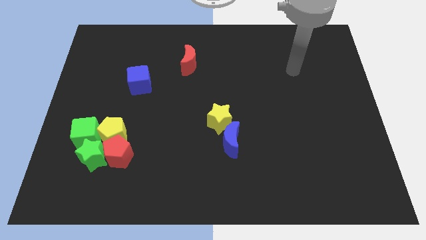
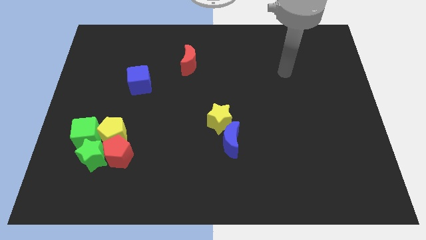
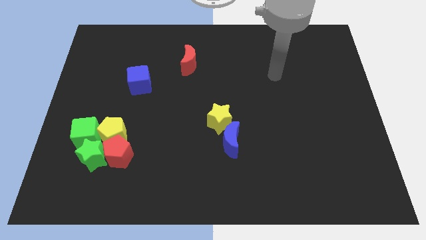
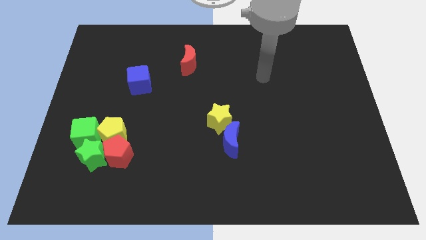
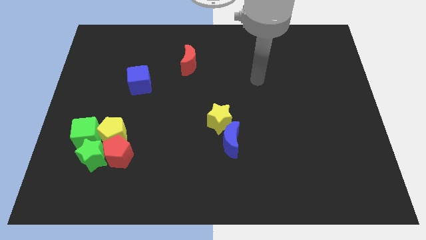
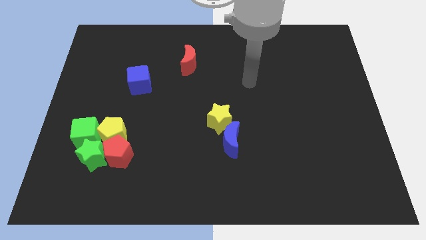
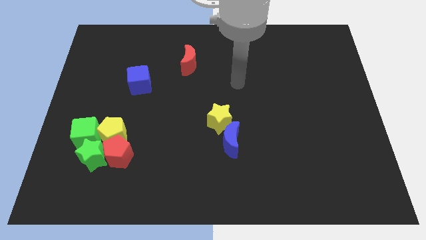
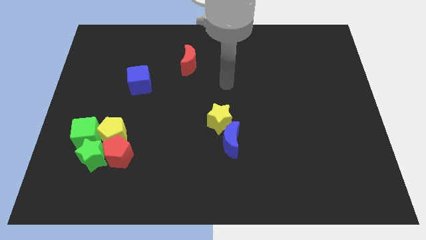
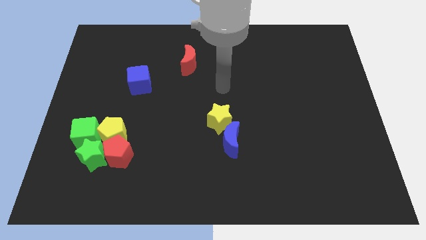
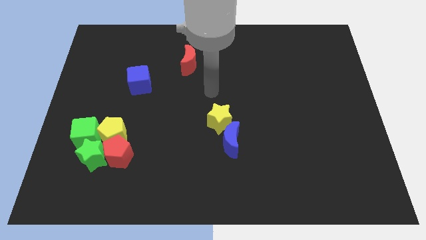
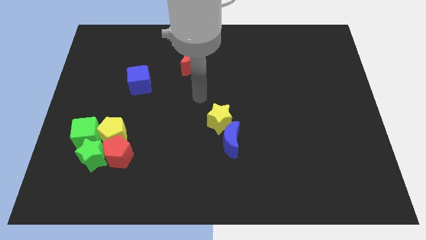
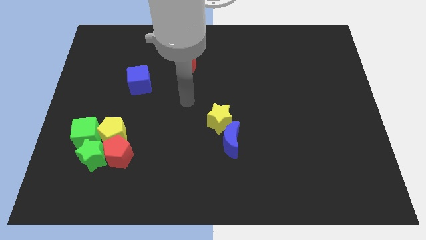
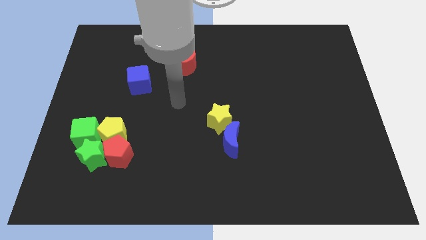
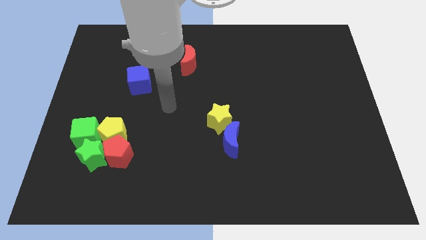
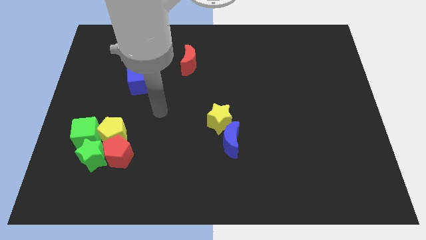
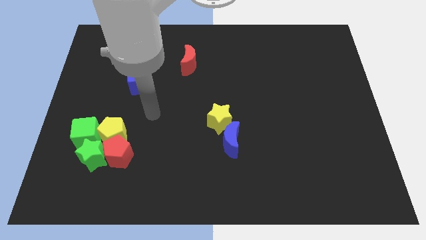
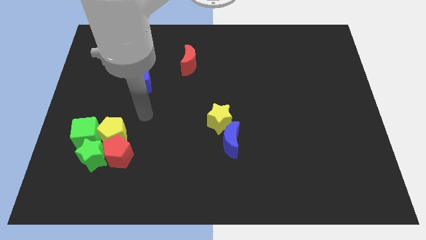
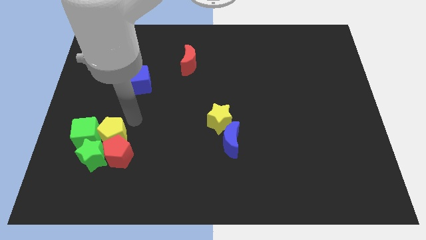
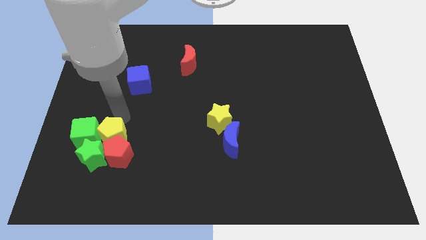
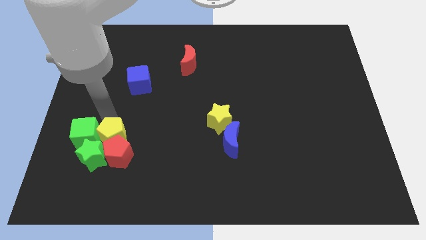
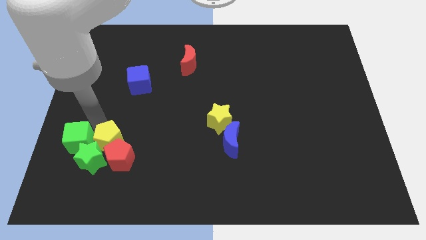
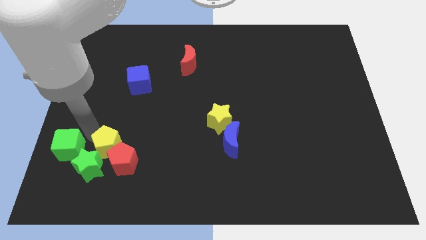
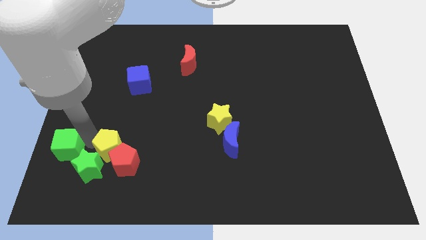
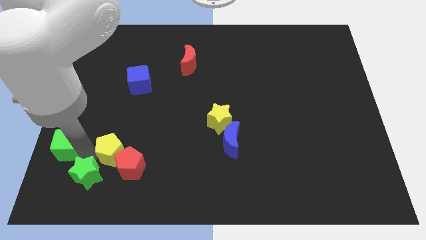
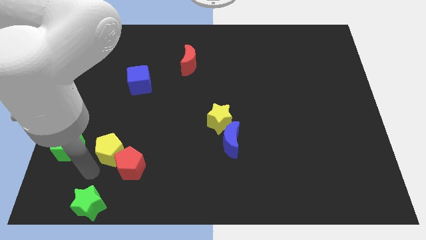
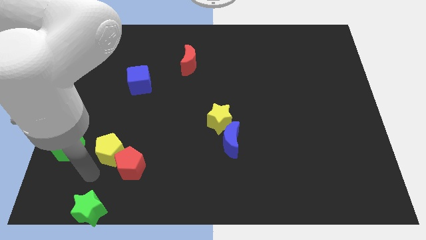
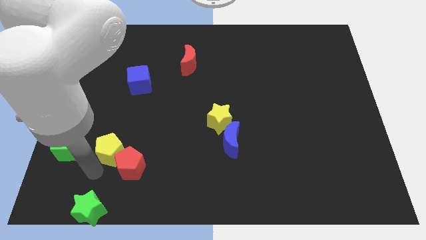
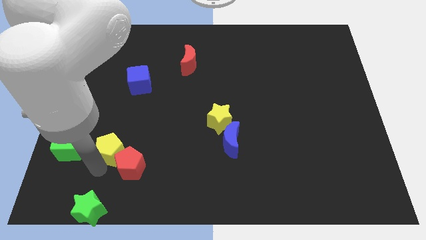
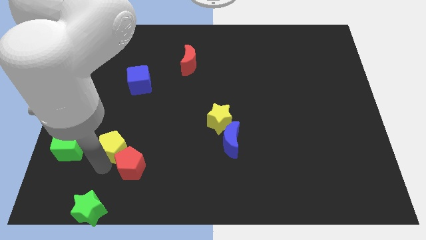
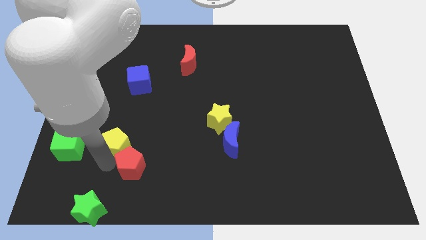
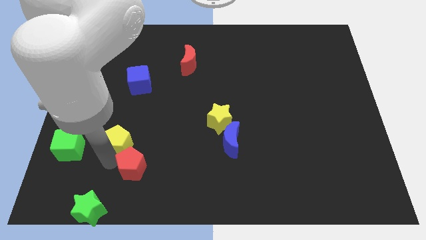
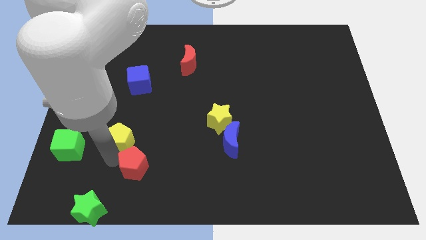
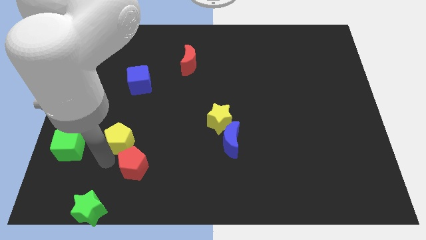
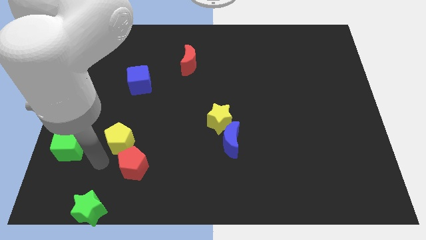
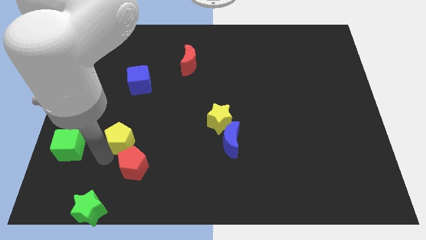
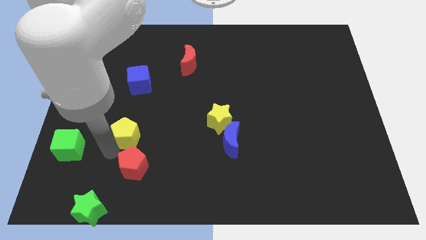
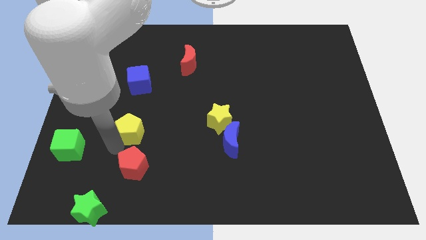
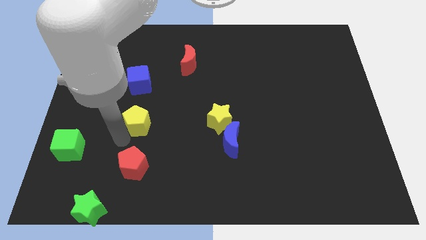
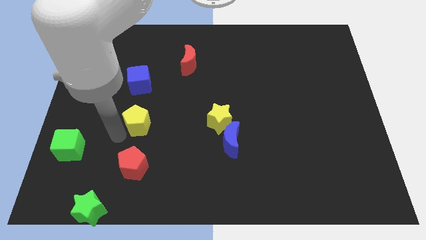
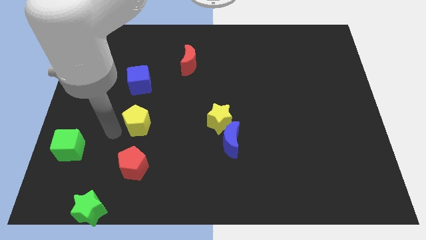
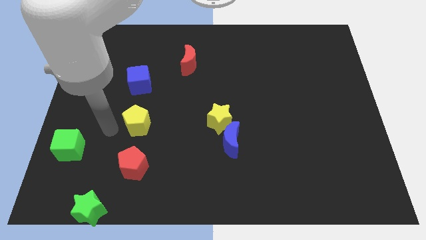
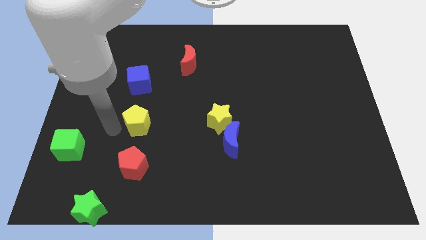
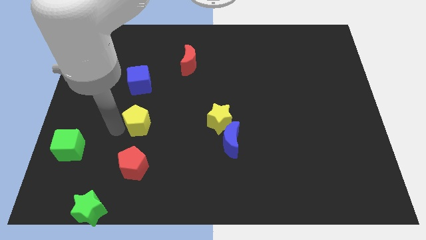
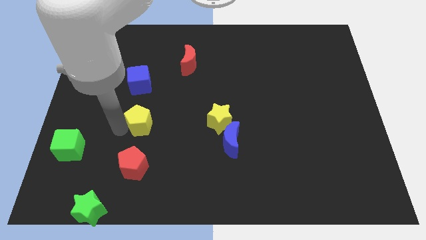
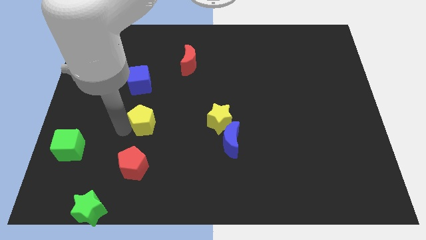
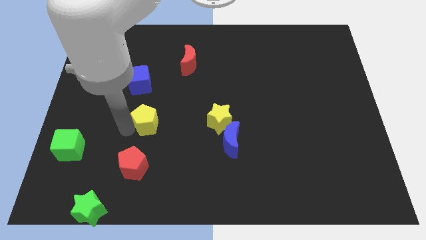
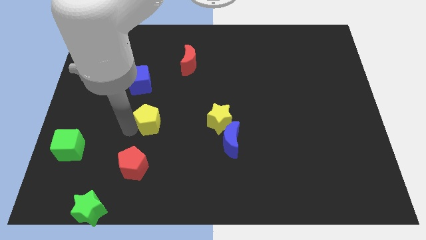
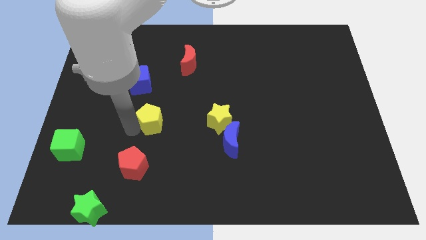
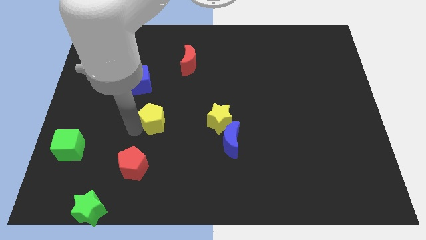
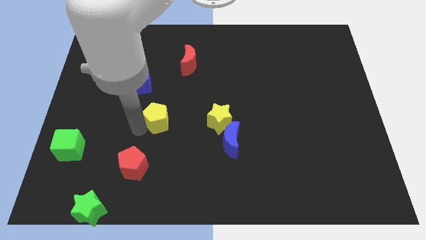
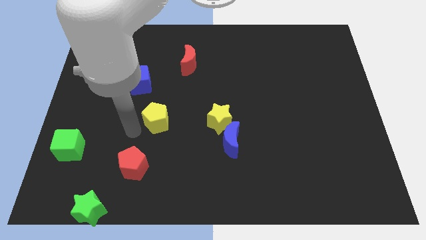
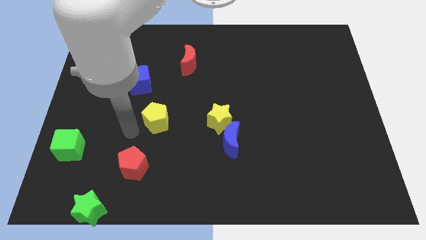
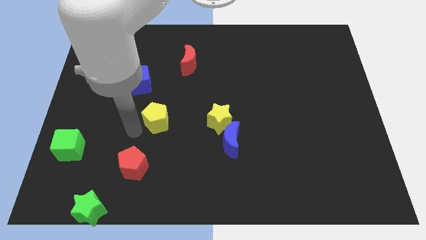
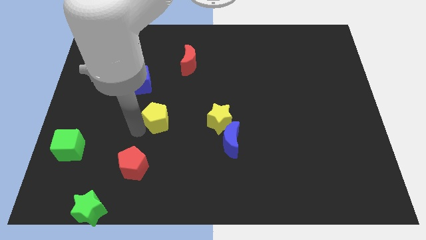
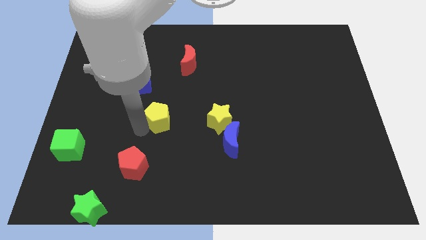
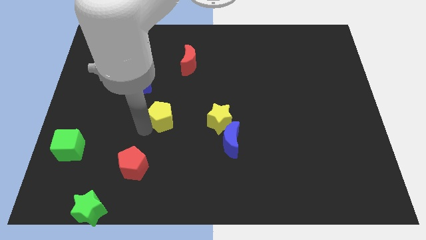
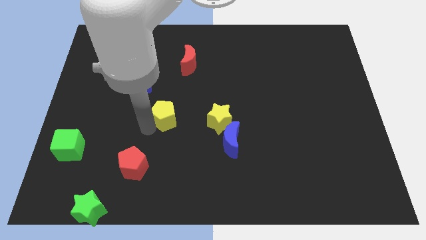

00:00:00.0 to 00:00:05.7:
put the yellow pentagon to the center of the board

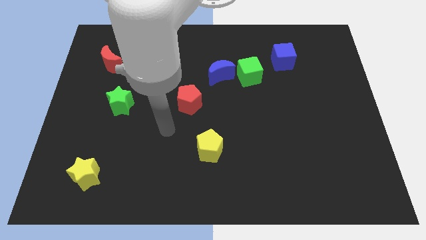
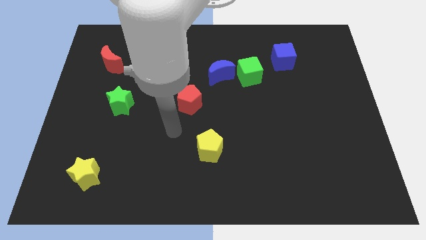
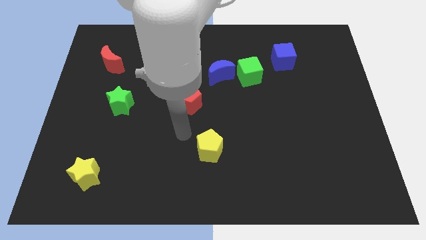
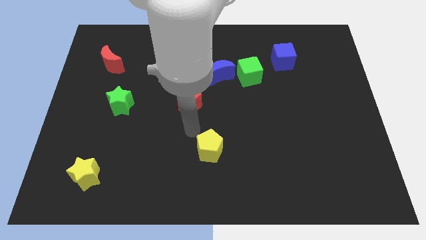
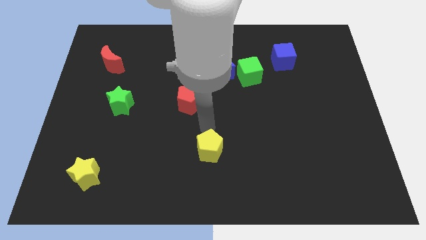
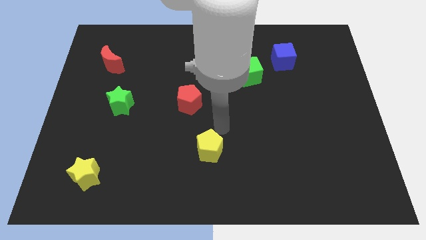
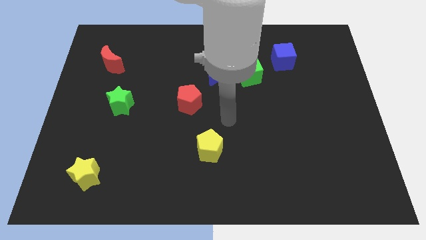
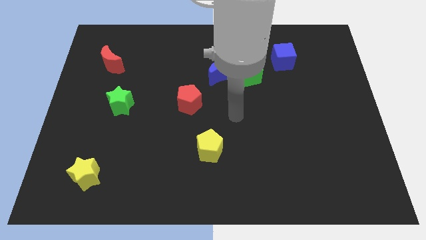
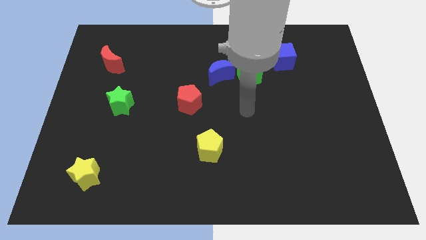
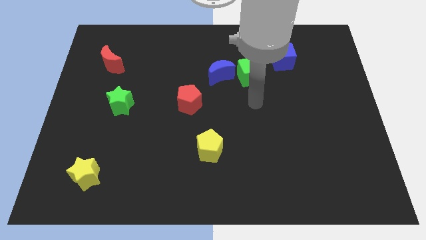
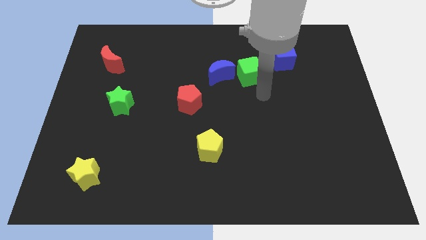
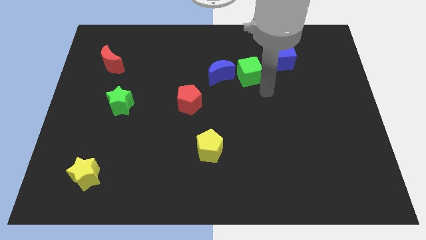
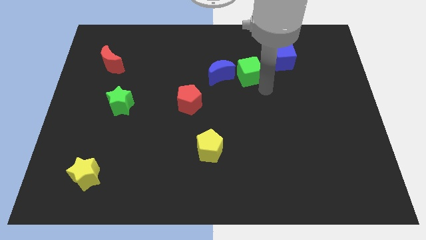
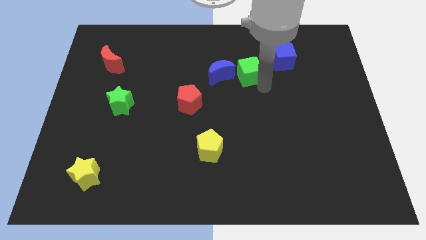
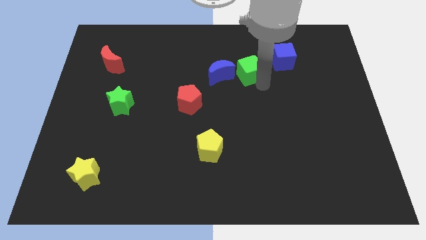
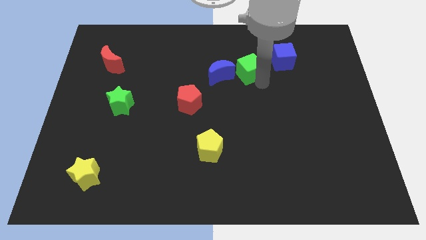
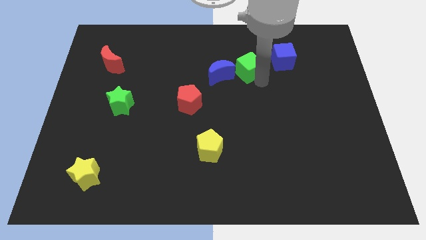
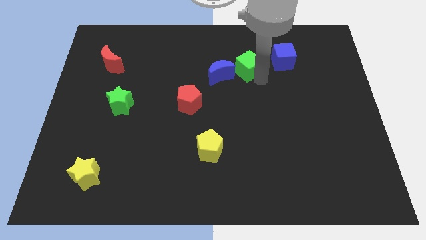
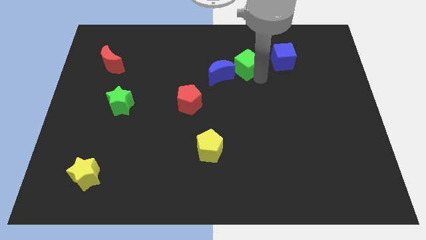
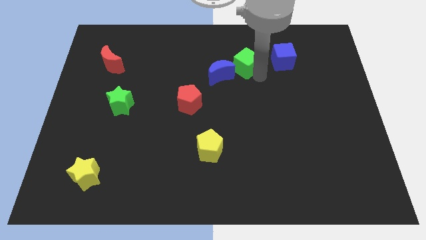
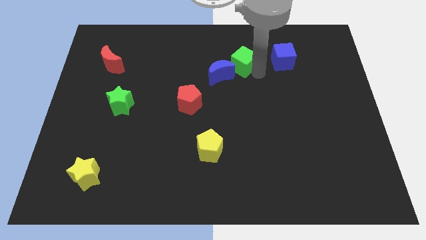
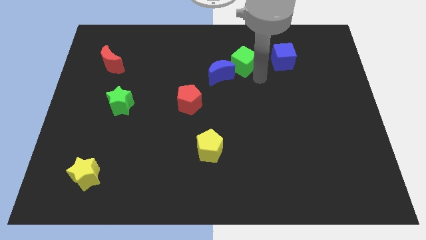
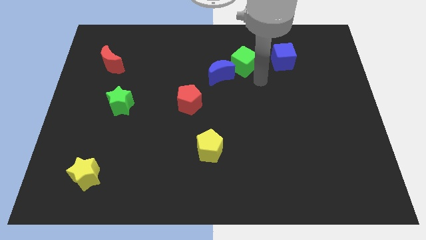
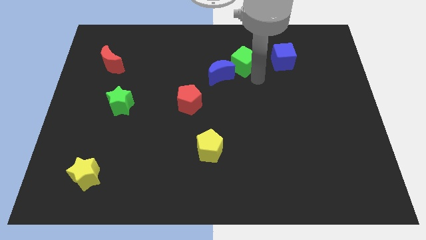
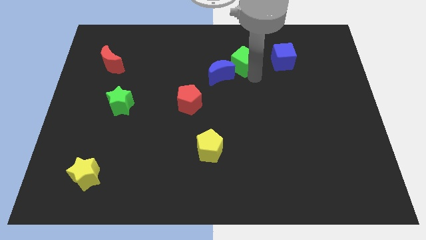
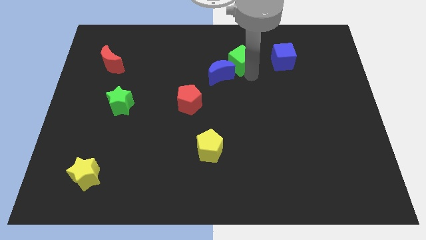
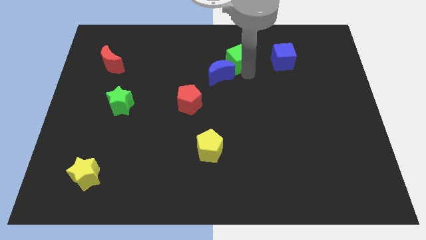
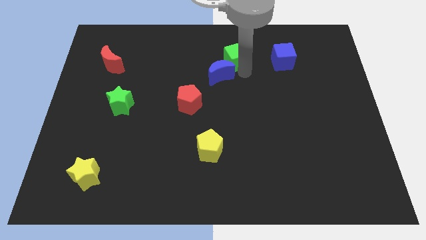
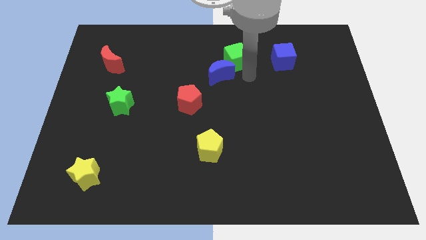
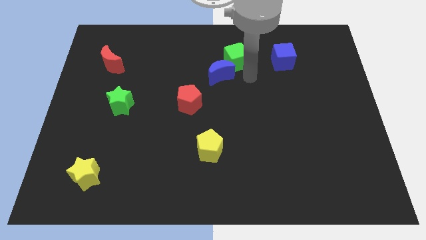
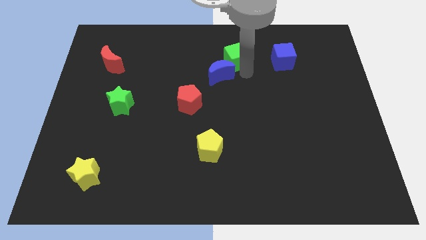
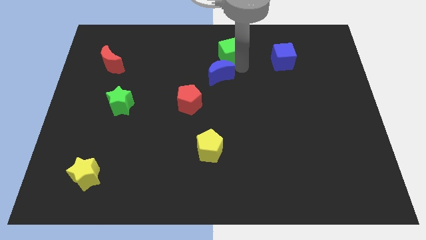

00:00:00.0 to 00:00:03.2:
slide the green cube to the top
